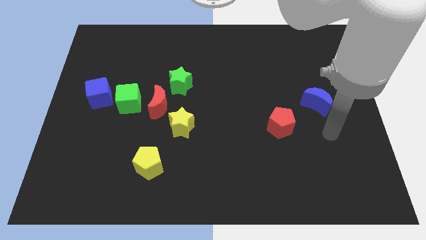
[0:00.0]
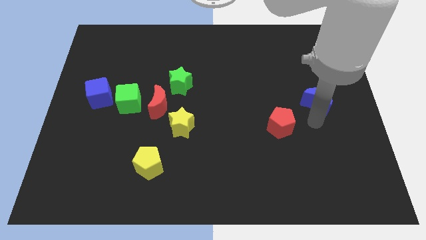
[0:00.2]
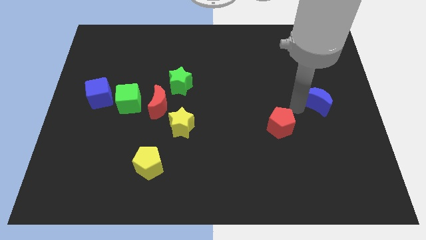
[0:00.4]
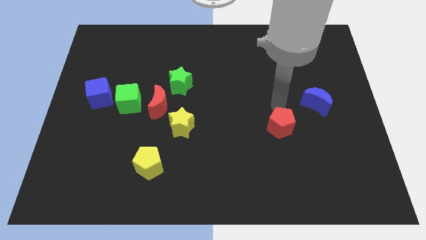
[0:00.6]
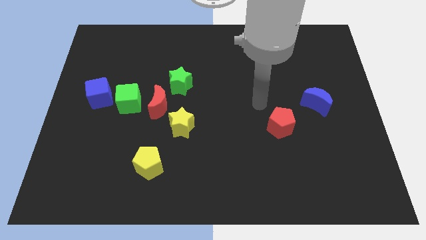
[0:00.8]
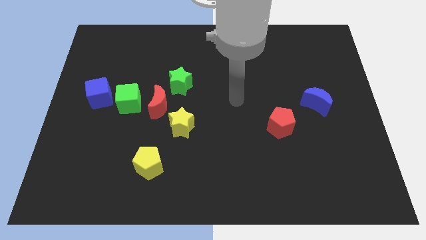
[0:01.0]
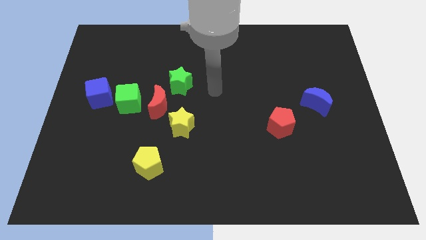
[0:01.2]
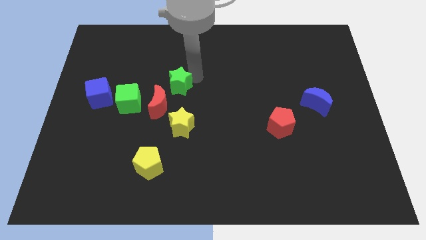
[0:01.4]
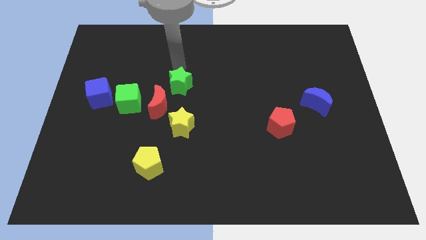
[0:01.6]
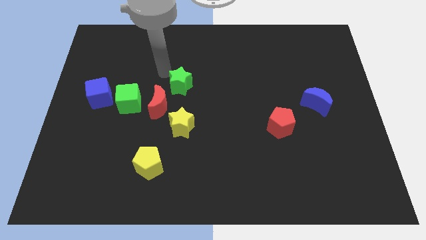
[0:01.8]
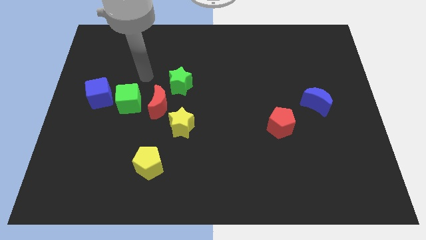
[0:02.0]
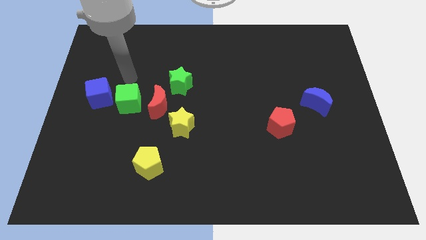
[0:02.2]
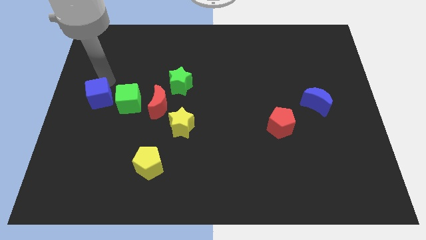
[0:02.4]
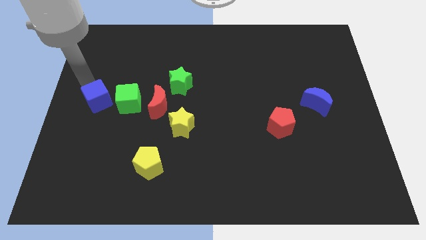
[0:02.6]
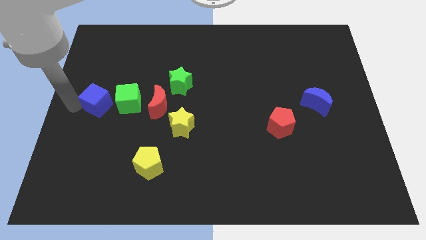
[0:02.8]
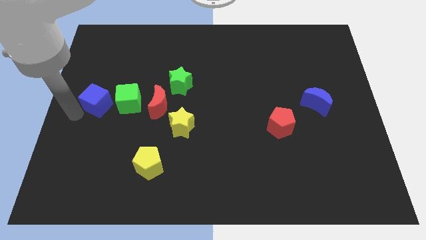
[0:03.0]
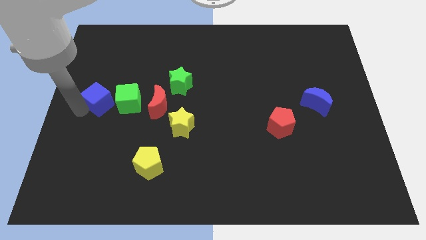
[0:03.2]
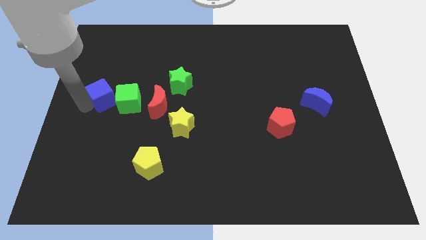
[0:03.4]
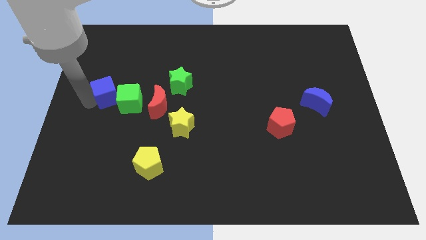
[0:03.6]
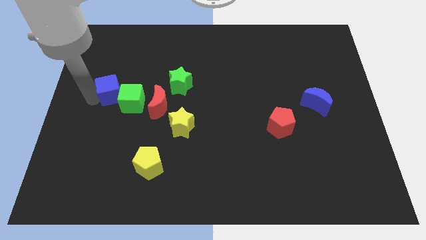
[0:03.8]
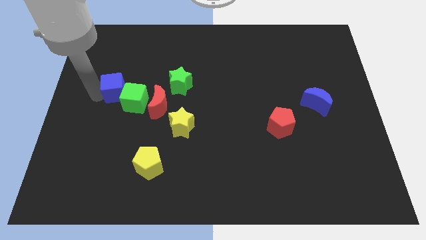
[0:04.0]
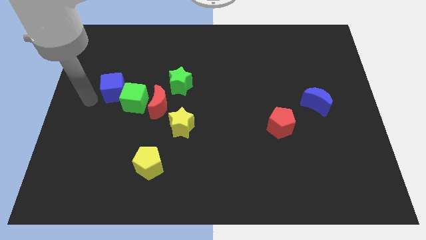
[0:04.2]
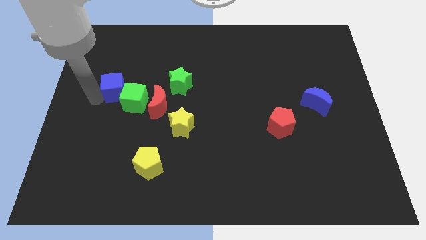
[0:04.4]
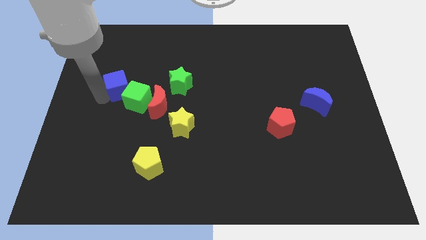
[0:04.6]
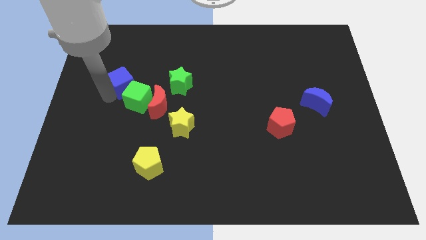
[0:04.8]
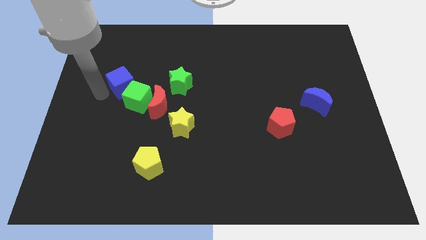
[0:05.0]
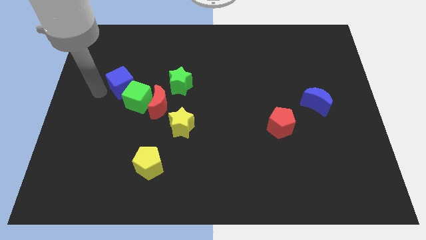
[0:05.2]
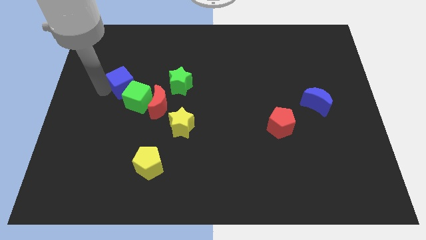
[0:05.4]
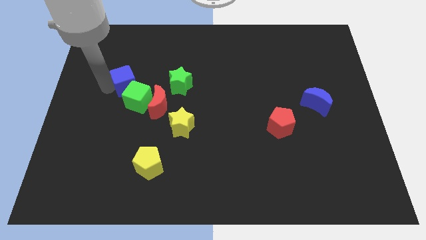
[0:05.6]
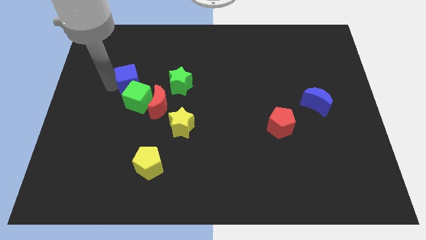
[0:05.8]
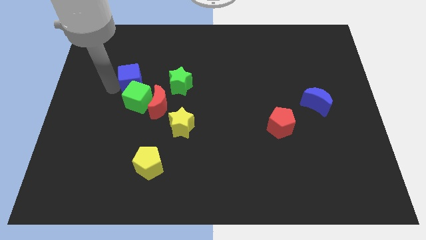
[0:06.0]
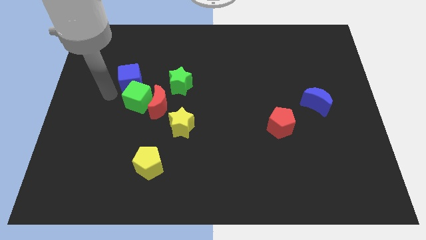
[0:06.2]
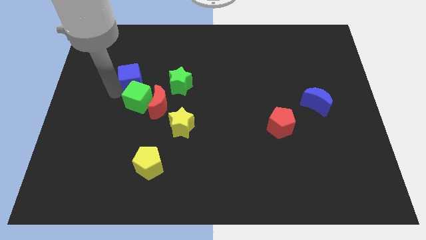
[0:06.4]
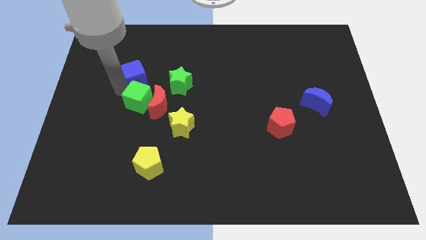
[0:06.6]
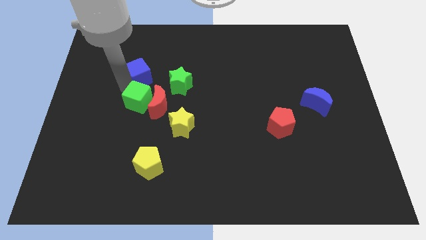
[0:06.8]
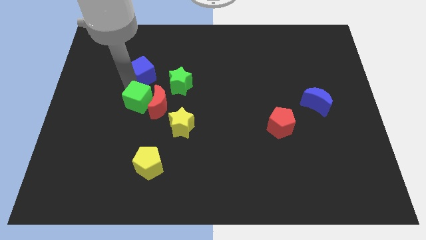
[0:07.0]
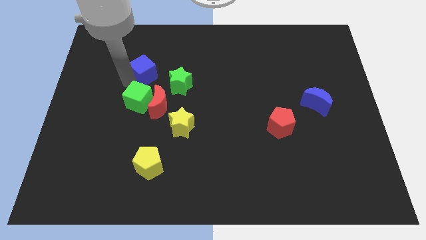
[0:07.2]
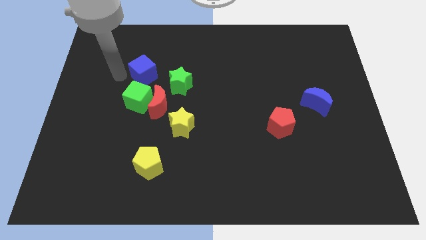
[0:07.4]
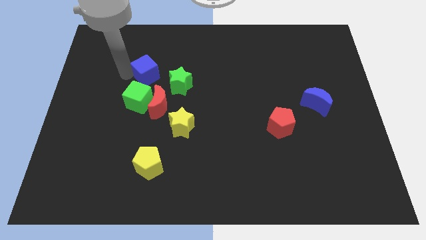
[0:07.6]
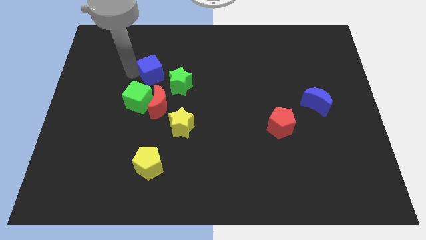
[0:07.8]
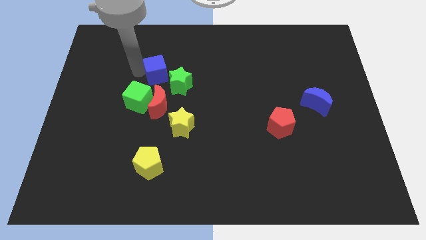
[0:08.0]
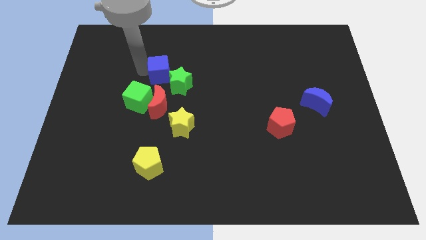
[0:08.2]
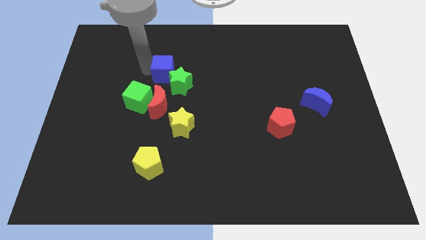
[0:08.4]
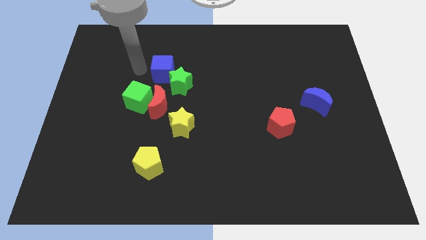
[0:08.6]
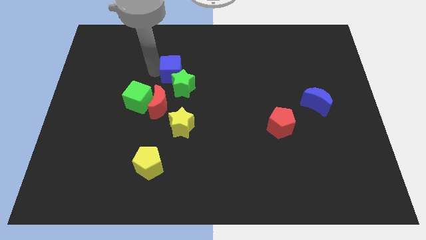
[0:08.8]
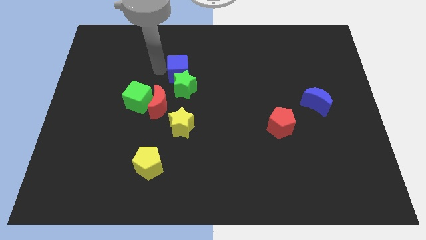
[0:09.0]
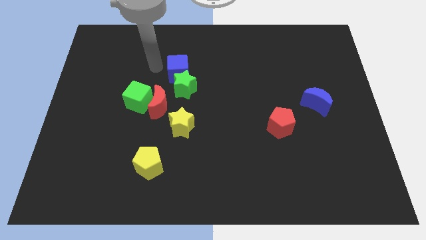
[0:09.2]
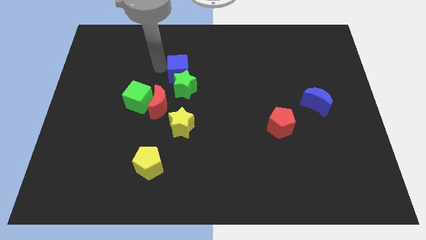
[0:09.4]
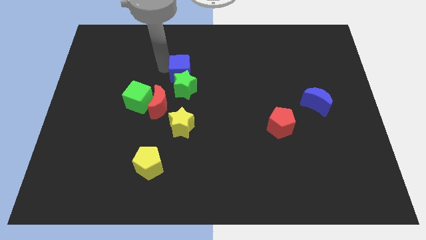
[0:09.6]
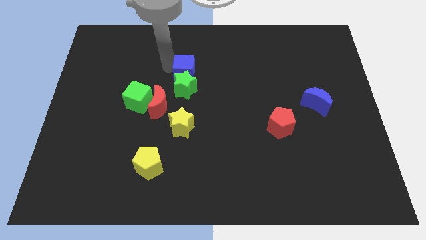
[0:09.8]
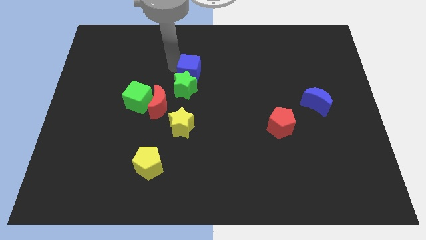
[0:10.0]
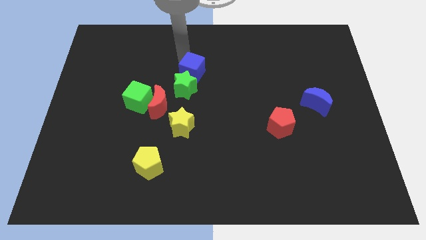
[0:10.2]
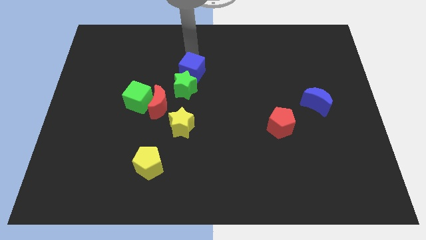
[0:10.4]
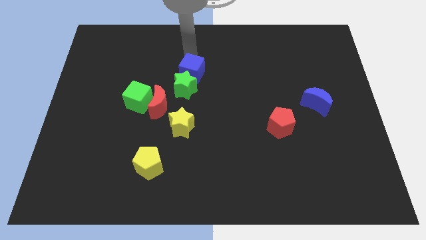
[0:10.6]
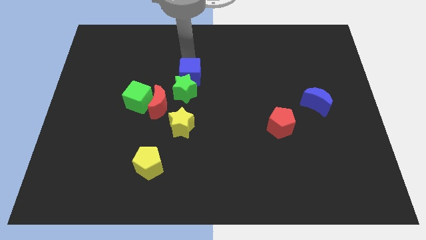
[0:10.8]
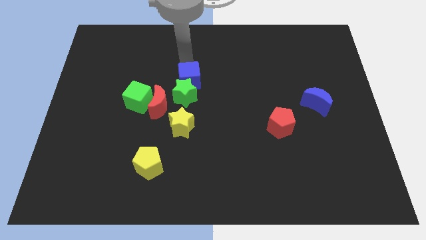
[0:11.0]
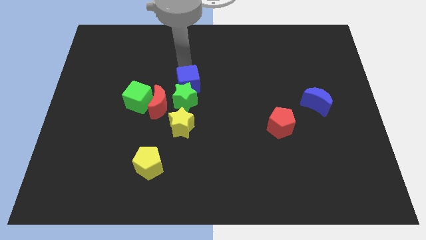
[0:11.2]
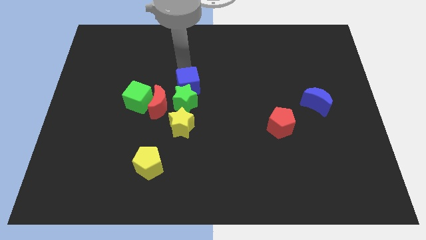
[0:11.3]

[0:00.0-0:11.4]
slide the blue cube right of the green cube

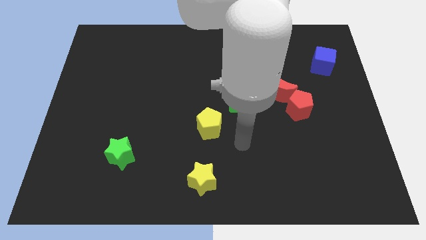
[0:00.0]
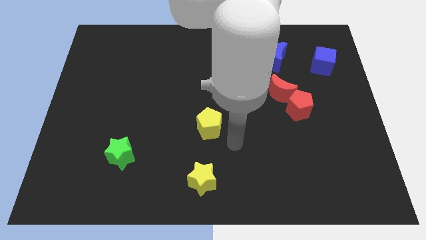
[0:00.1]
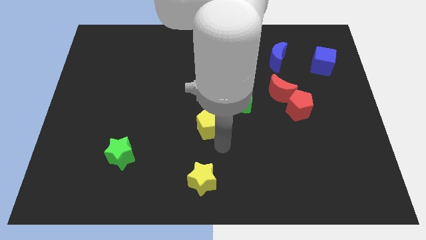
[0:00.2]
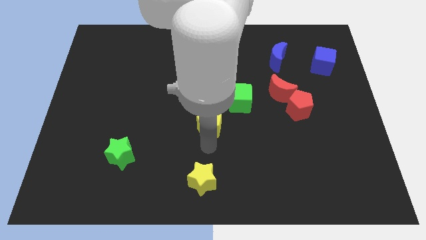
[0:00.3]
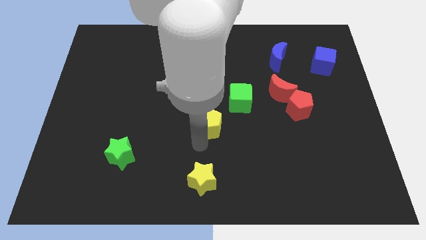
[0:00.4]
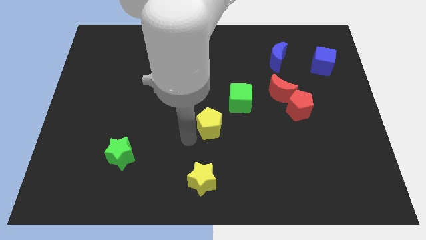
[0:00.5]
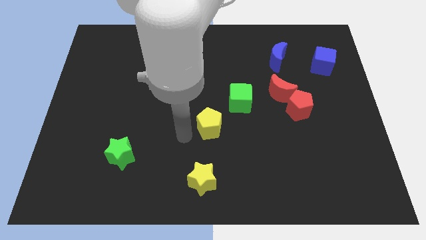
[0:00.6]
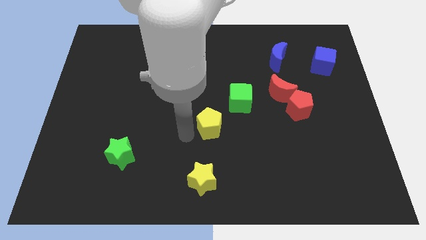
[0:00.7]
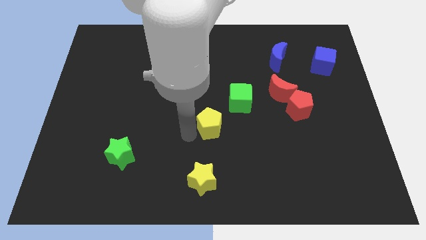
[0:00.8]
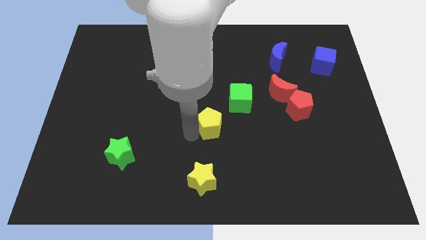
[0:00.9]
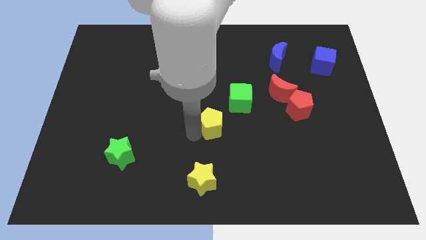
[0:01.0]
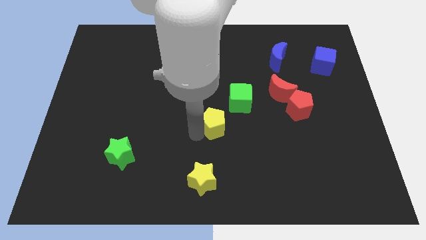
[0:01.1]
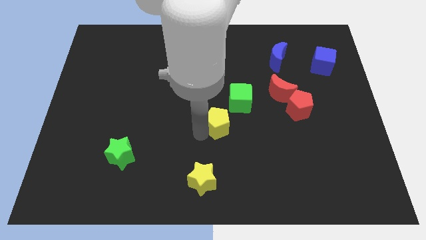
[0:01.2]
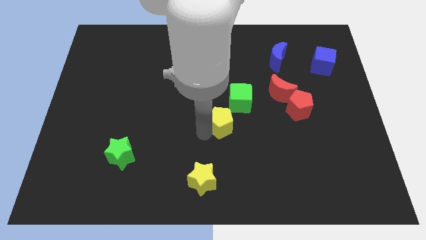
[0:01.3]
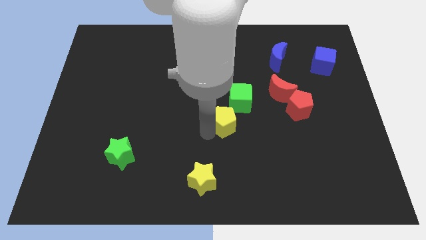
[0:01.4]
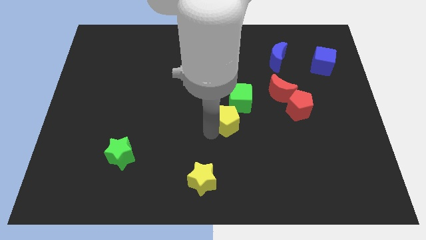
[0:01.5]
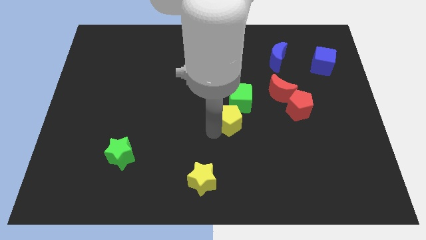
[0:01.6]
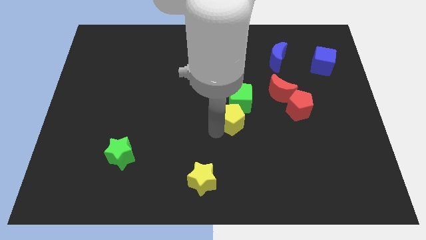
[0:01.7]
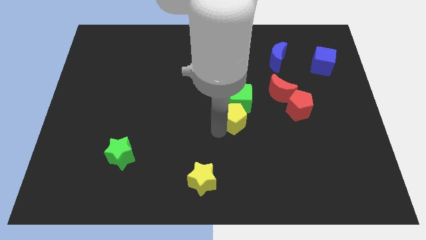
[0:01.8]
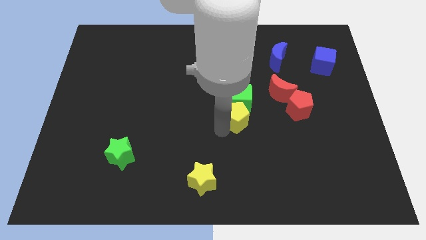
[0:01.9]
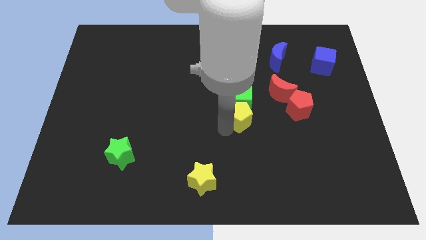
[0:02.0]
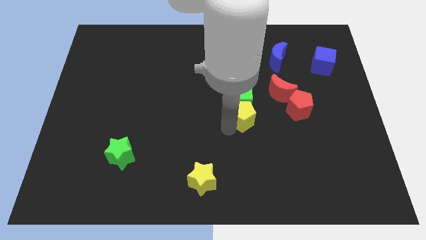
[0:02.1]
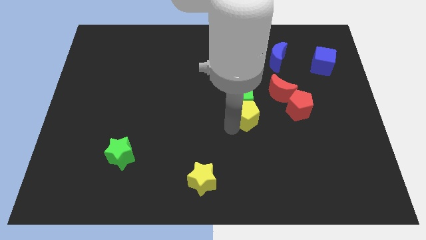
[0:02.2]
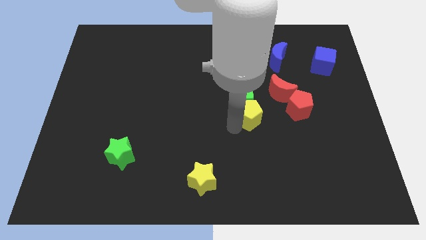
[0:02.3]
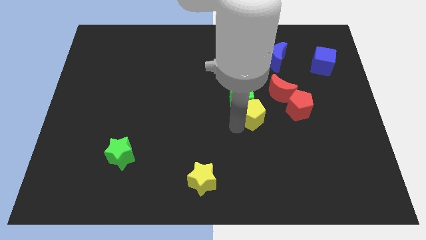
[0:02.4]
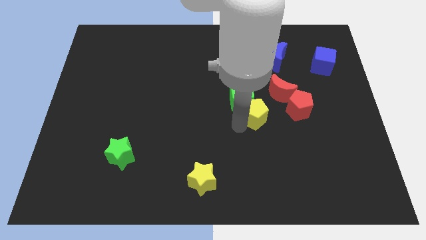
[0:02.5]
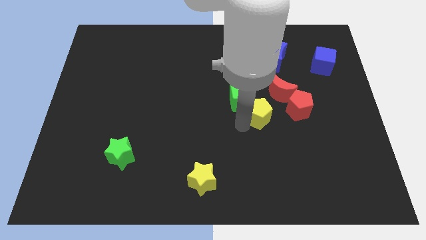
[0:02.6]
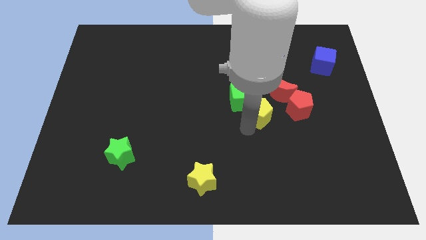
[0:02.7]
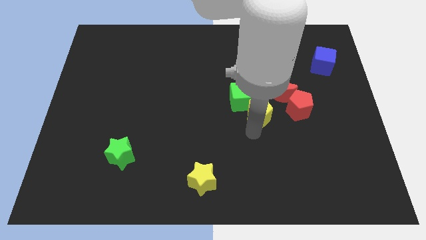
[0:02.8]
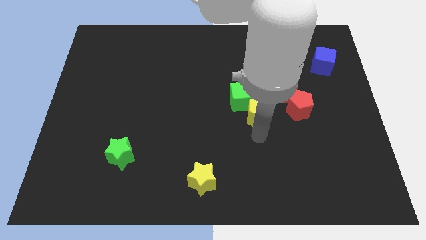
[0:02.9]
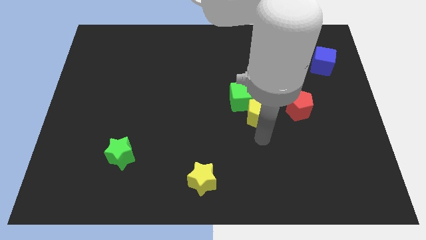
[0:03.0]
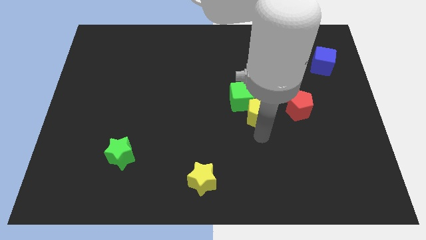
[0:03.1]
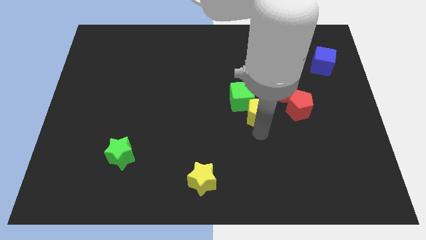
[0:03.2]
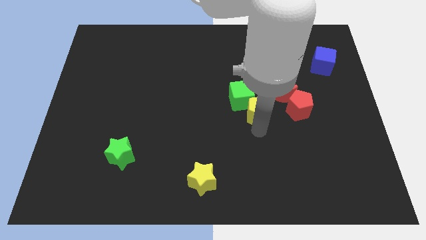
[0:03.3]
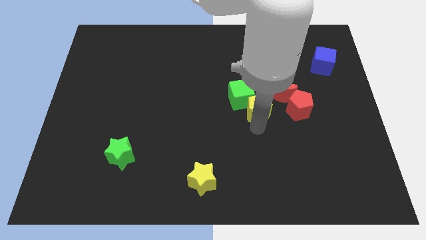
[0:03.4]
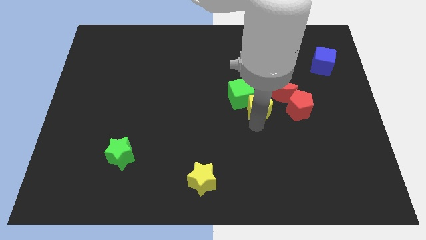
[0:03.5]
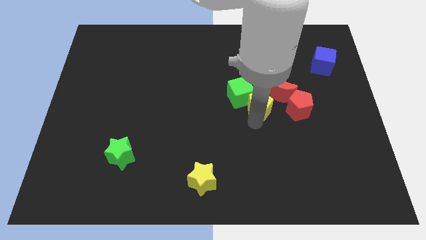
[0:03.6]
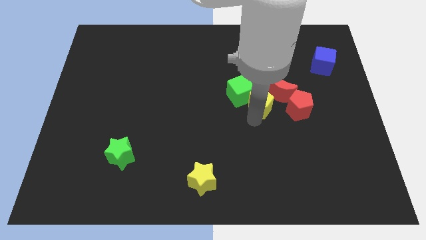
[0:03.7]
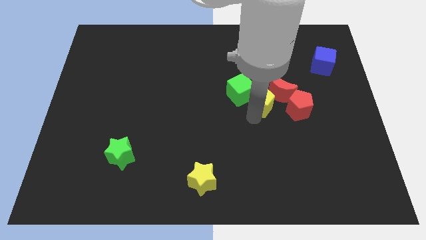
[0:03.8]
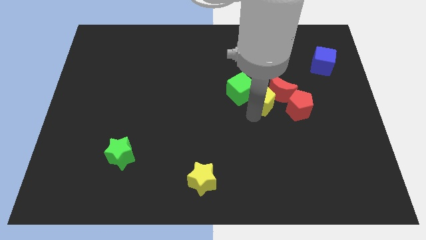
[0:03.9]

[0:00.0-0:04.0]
put the yellow pentagon diagonally up and to the left of the red pentagon
